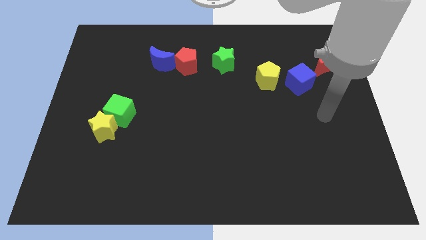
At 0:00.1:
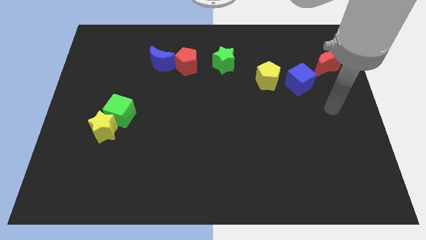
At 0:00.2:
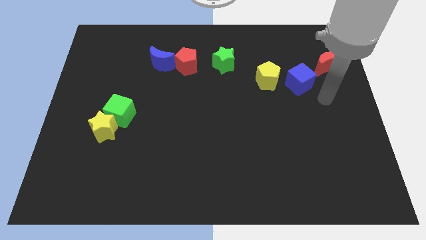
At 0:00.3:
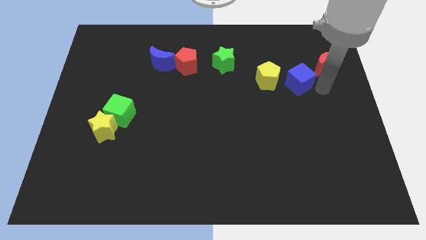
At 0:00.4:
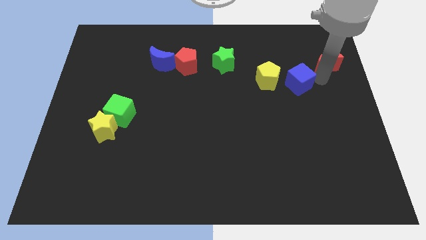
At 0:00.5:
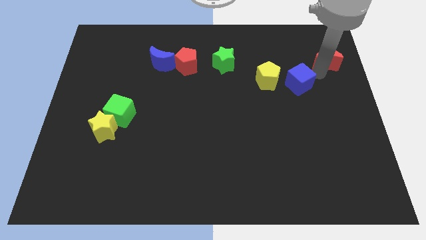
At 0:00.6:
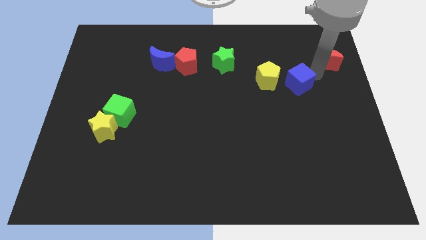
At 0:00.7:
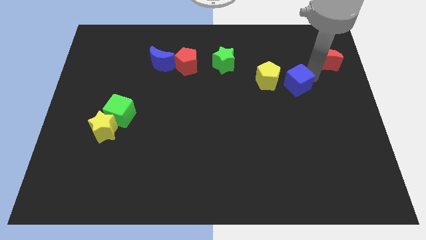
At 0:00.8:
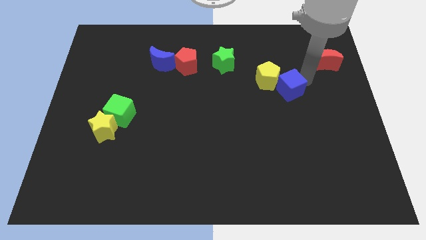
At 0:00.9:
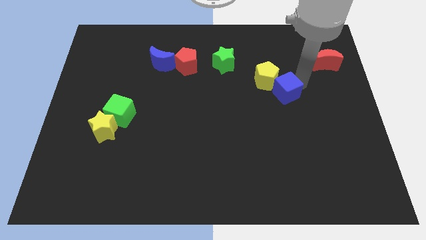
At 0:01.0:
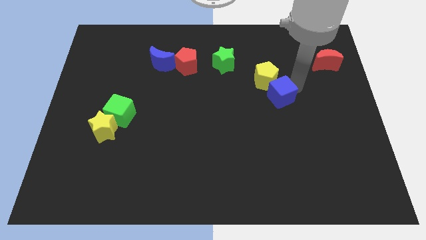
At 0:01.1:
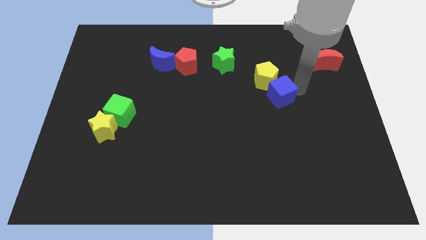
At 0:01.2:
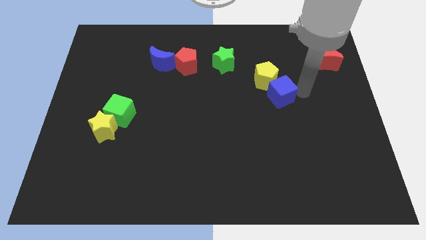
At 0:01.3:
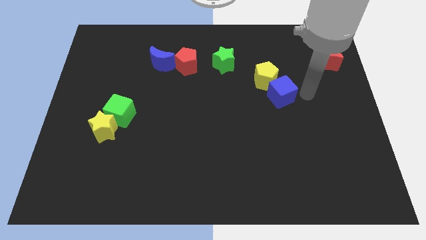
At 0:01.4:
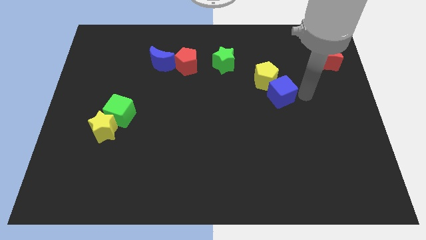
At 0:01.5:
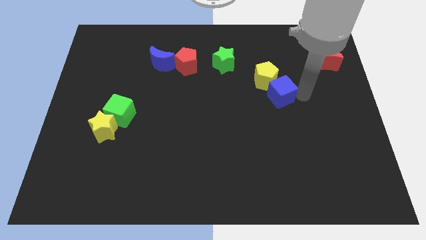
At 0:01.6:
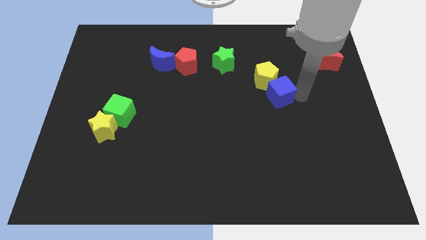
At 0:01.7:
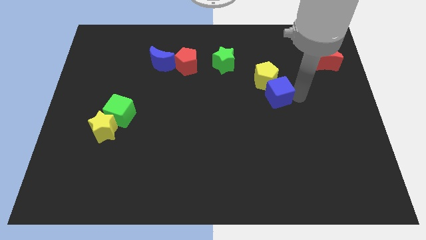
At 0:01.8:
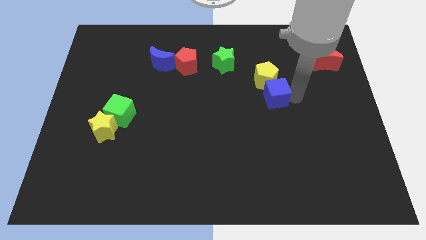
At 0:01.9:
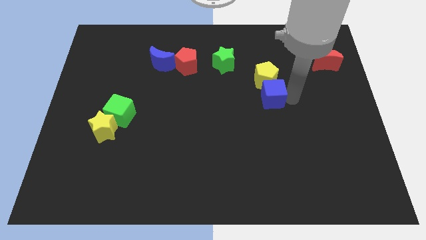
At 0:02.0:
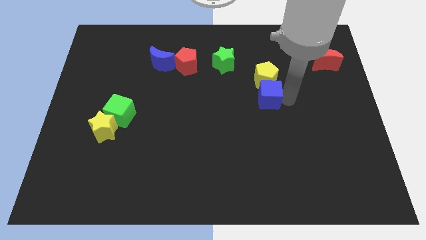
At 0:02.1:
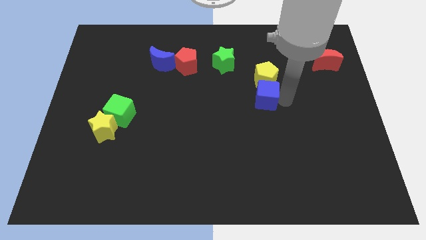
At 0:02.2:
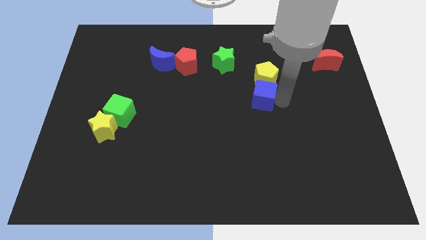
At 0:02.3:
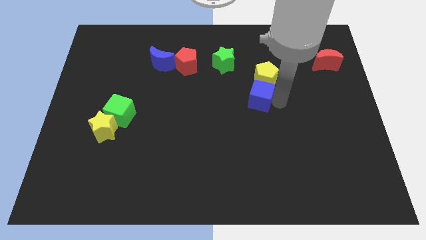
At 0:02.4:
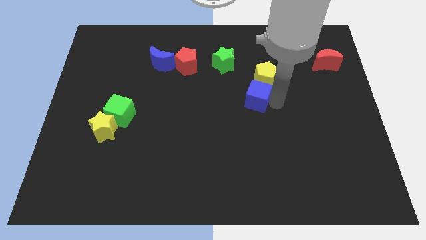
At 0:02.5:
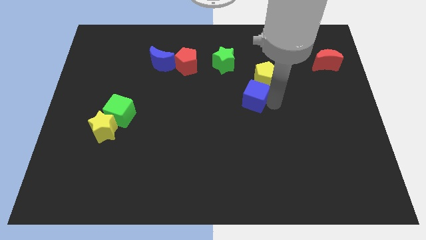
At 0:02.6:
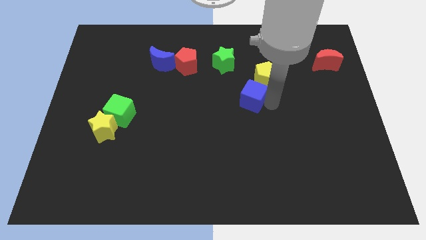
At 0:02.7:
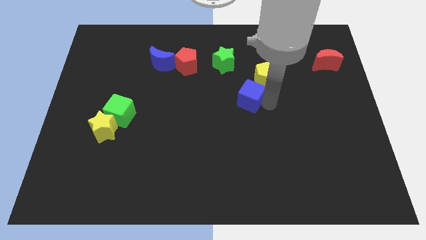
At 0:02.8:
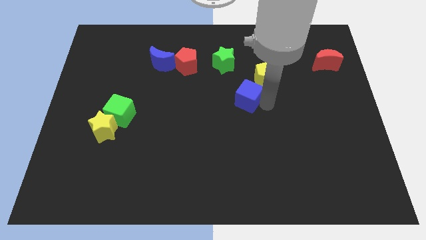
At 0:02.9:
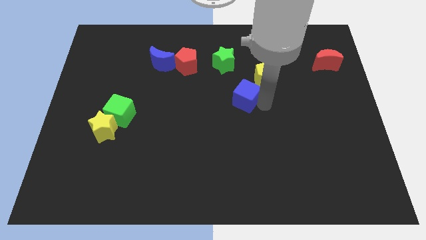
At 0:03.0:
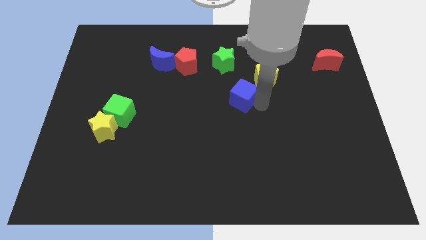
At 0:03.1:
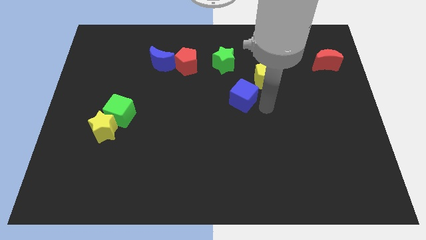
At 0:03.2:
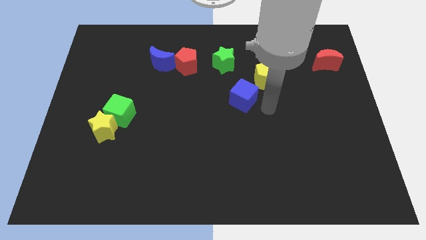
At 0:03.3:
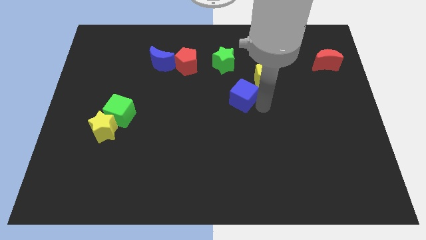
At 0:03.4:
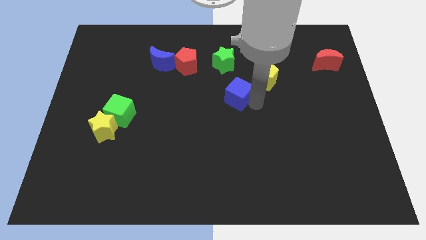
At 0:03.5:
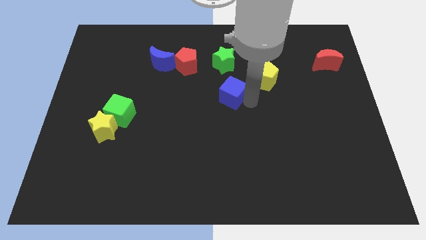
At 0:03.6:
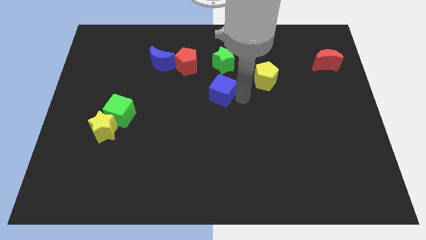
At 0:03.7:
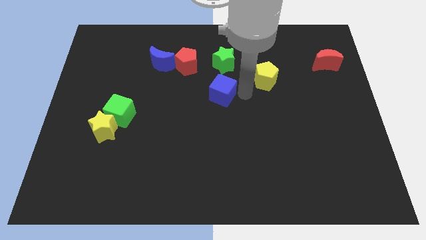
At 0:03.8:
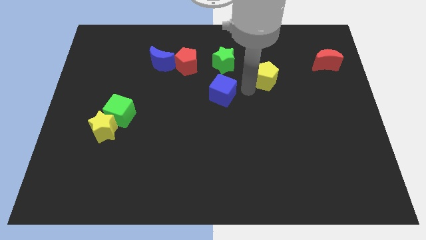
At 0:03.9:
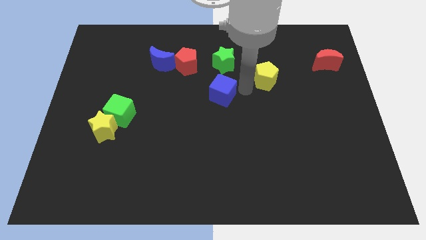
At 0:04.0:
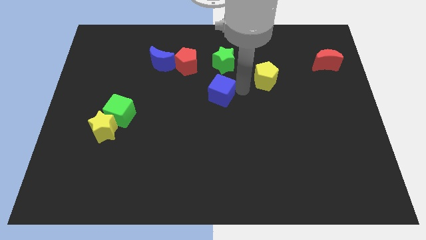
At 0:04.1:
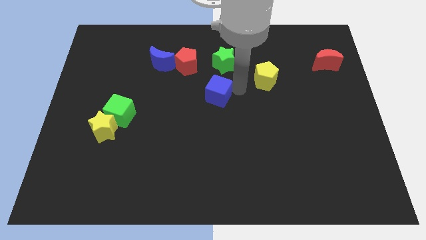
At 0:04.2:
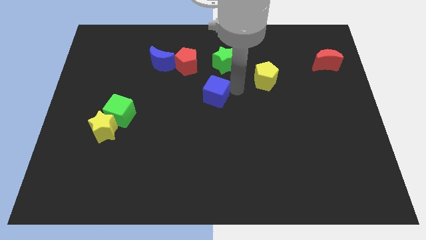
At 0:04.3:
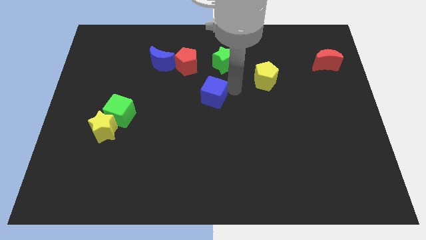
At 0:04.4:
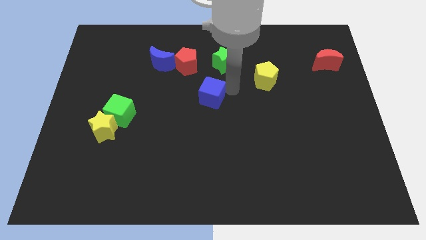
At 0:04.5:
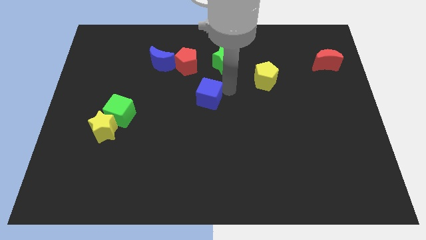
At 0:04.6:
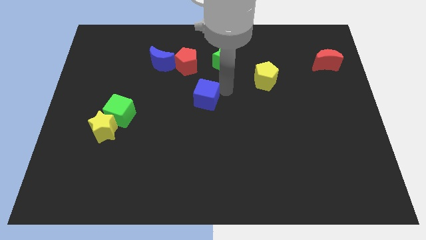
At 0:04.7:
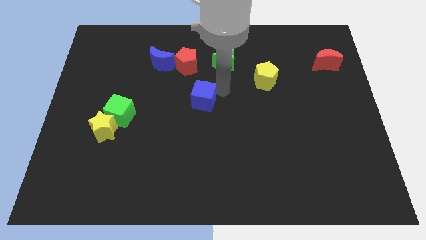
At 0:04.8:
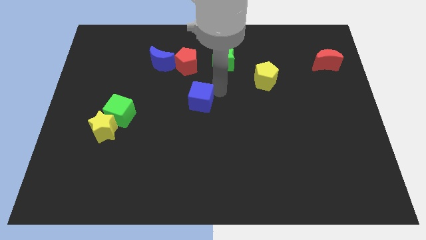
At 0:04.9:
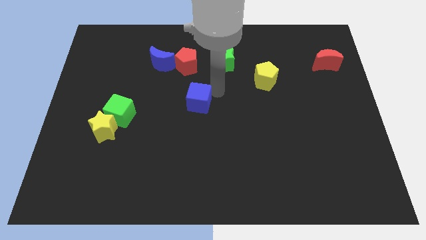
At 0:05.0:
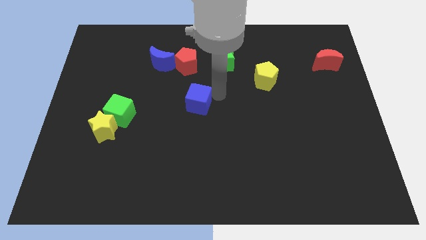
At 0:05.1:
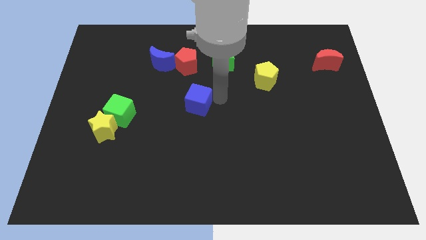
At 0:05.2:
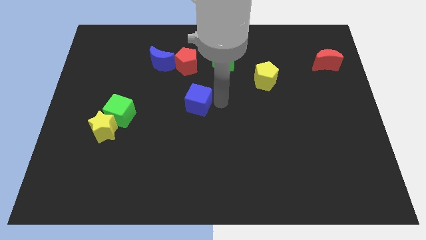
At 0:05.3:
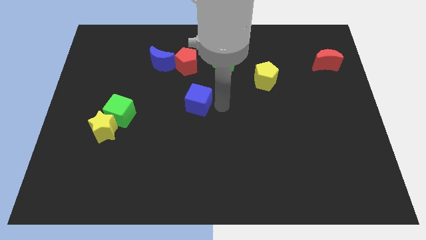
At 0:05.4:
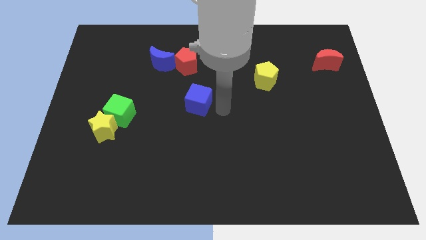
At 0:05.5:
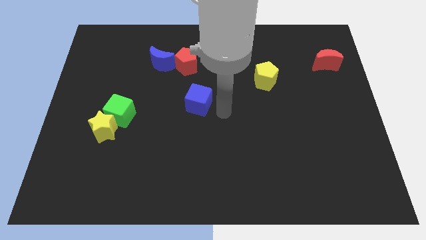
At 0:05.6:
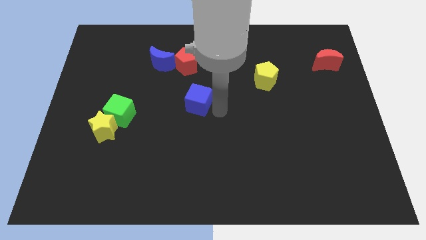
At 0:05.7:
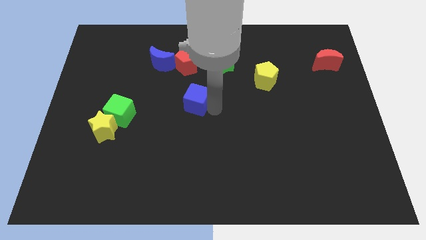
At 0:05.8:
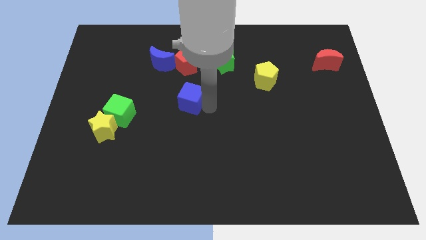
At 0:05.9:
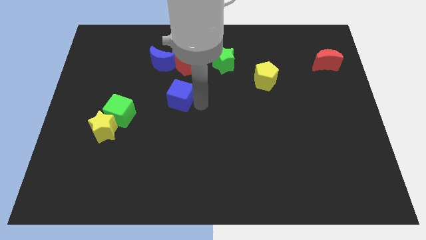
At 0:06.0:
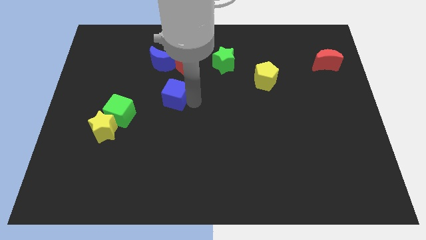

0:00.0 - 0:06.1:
push the blue cube to the bottom side of the blue moon
